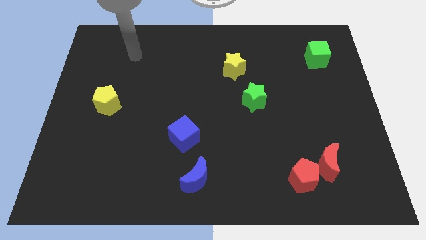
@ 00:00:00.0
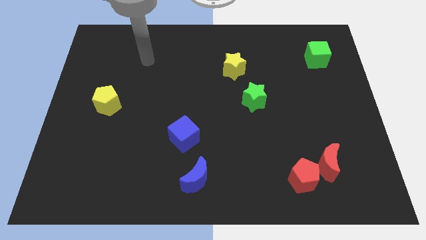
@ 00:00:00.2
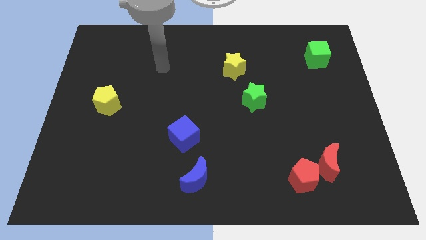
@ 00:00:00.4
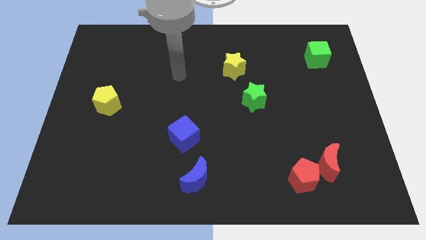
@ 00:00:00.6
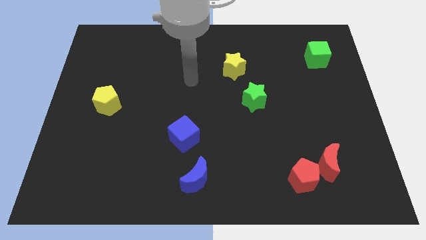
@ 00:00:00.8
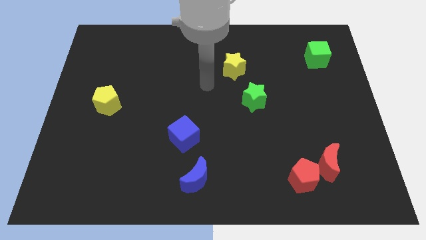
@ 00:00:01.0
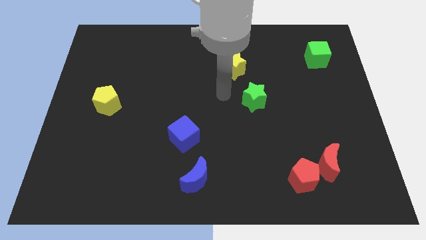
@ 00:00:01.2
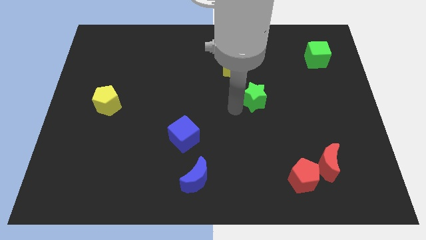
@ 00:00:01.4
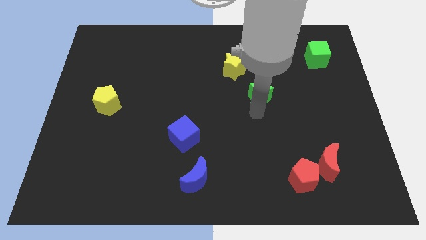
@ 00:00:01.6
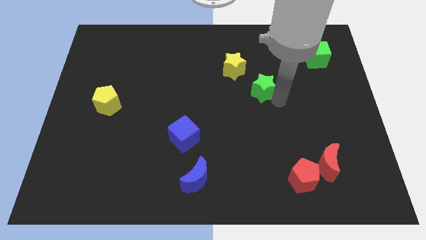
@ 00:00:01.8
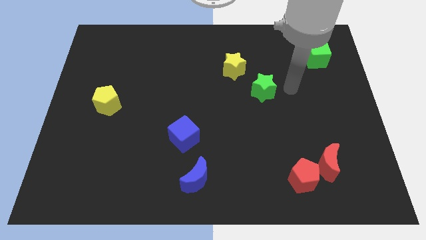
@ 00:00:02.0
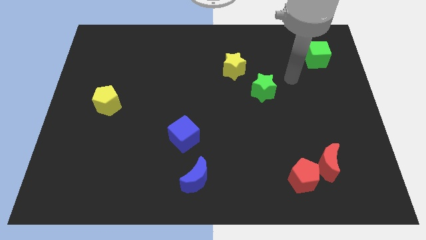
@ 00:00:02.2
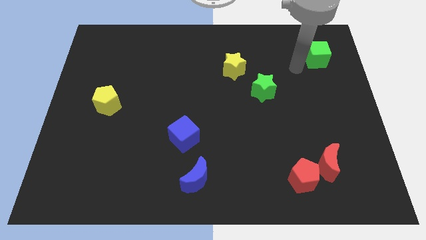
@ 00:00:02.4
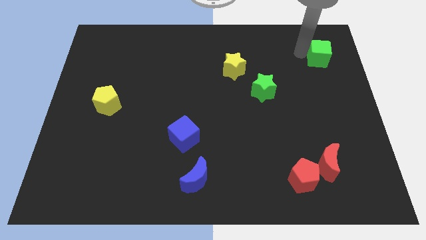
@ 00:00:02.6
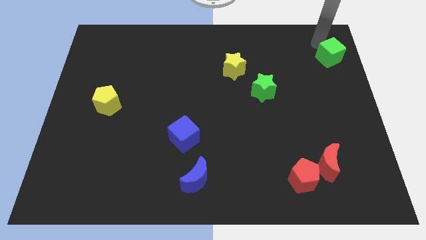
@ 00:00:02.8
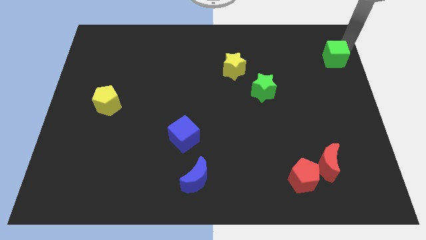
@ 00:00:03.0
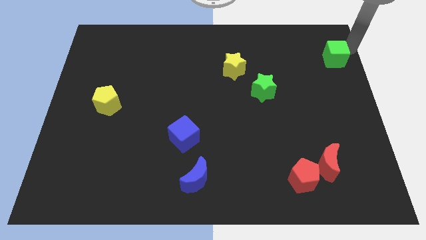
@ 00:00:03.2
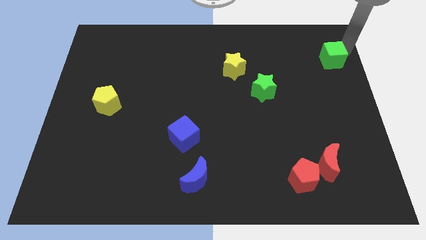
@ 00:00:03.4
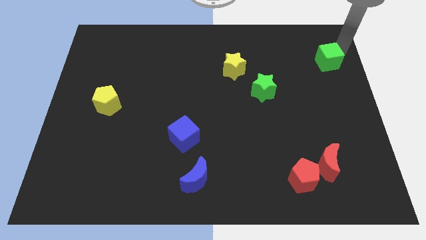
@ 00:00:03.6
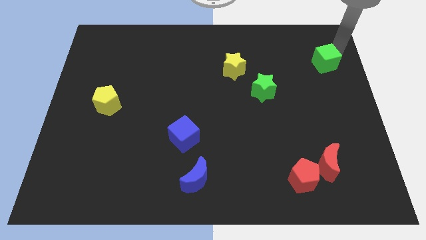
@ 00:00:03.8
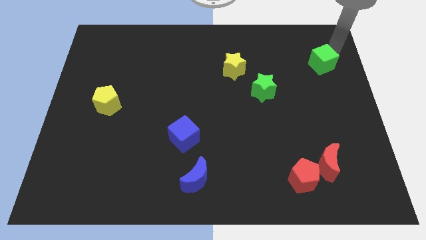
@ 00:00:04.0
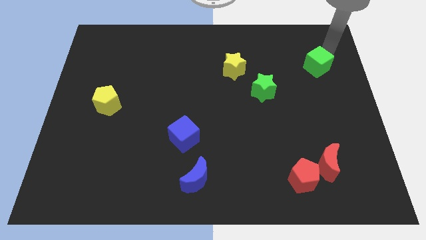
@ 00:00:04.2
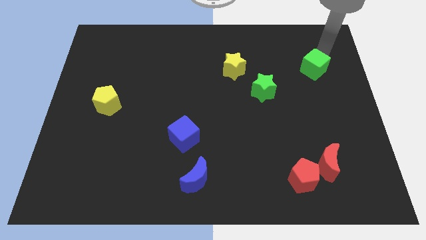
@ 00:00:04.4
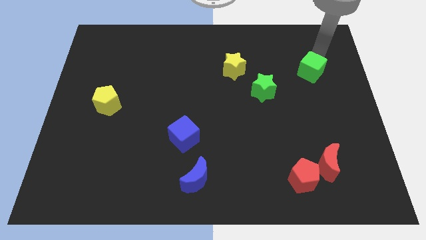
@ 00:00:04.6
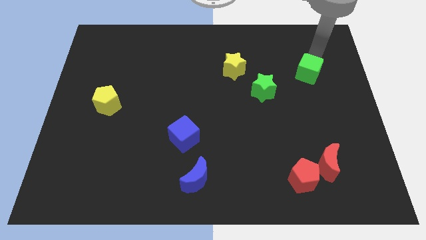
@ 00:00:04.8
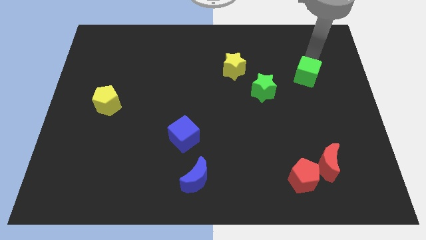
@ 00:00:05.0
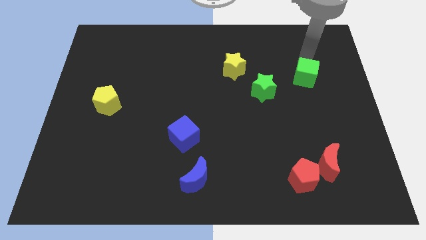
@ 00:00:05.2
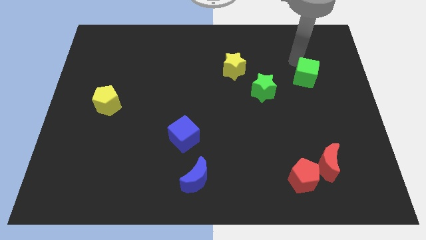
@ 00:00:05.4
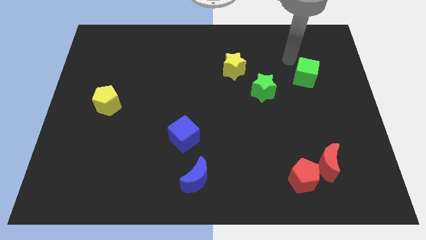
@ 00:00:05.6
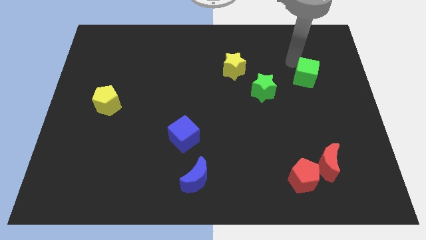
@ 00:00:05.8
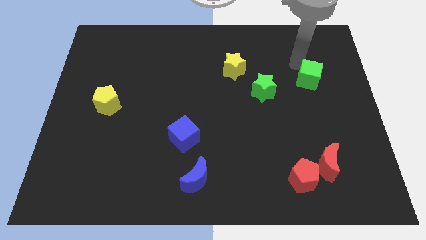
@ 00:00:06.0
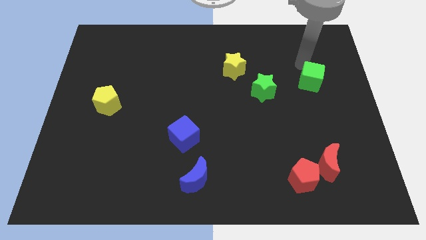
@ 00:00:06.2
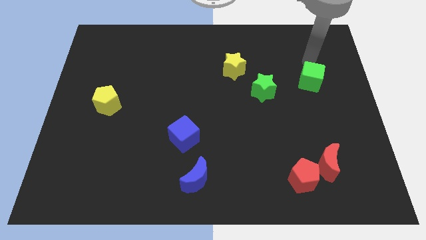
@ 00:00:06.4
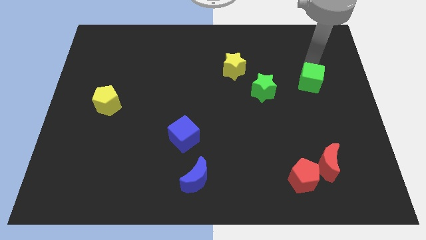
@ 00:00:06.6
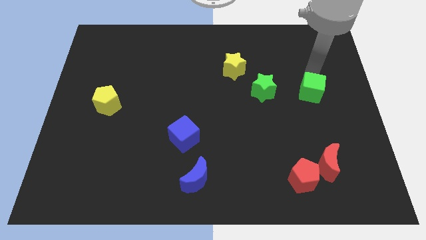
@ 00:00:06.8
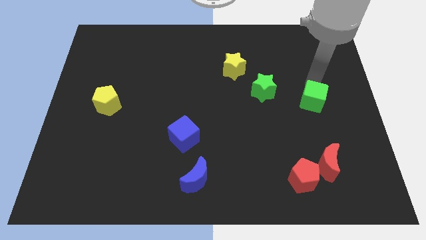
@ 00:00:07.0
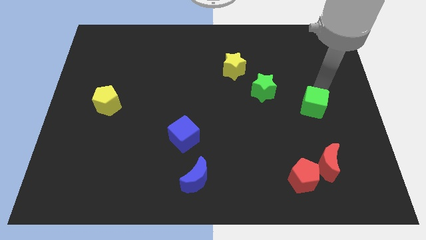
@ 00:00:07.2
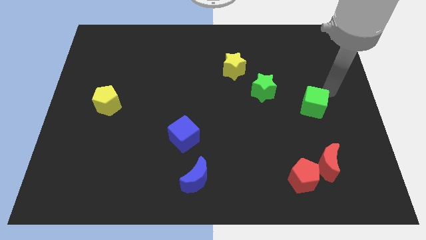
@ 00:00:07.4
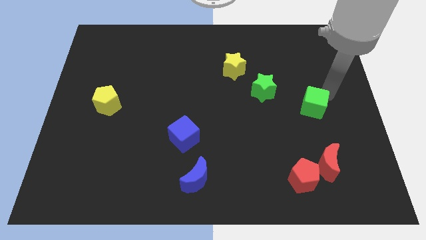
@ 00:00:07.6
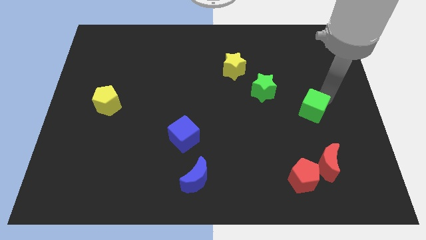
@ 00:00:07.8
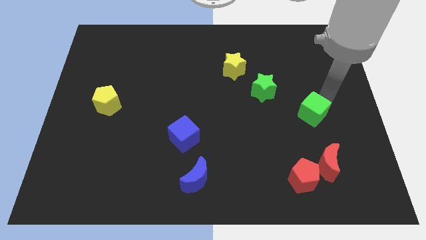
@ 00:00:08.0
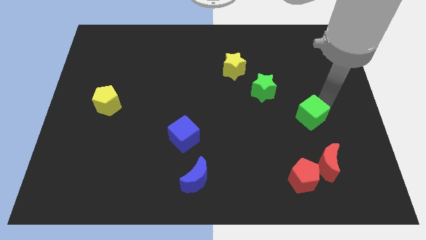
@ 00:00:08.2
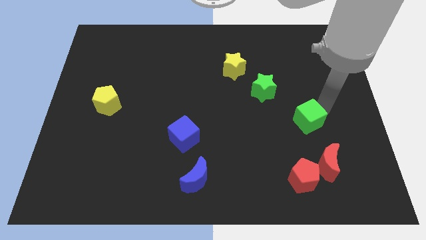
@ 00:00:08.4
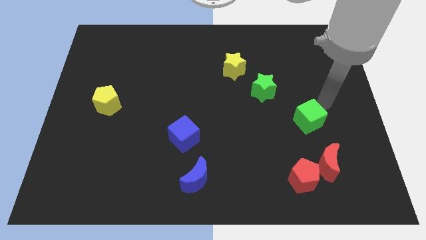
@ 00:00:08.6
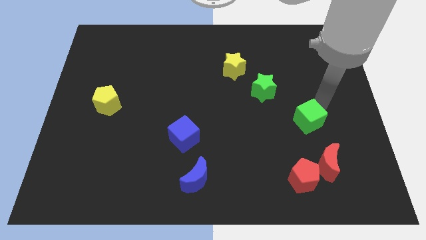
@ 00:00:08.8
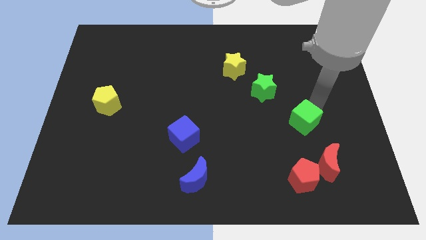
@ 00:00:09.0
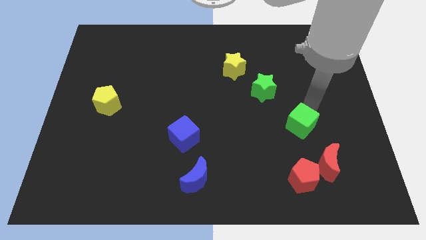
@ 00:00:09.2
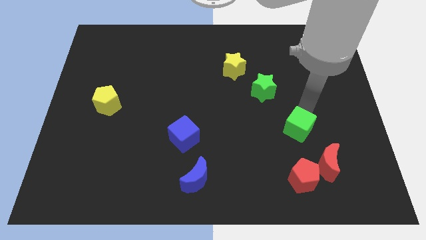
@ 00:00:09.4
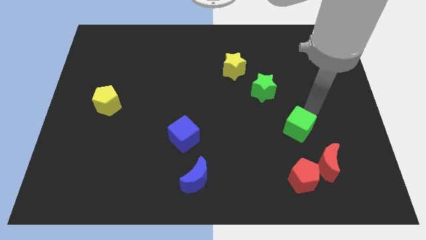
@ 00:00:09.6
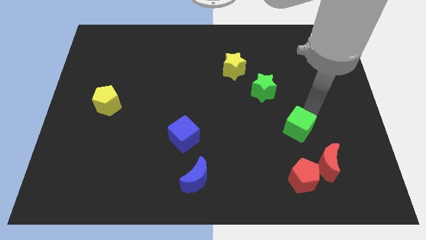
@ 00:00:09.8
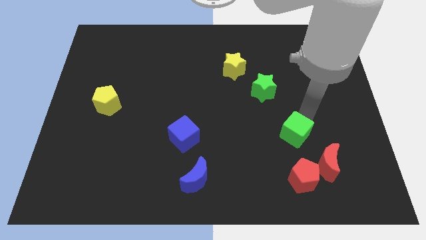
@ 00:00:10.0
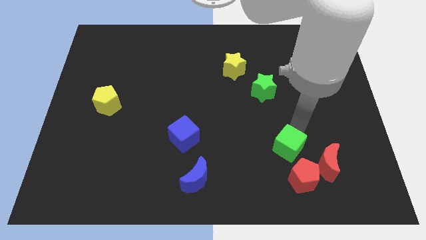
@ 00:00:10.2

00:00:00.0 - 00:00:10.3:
slide the green cube to the left of the red moon
